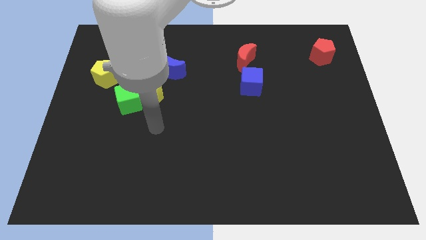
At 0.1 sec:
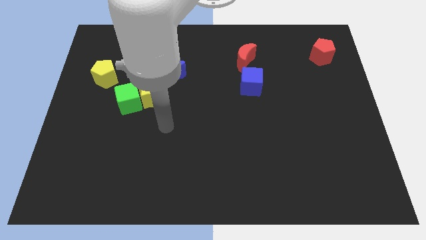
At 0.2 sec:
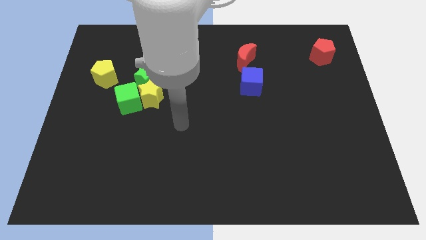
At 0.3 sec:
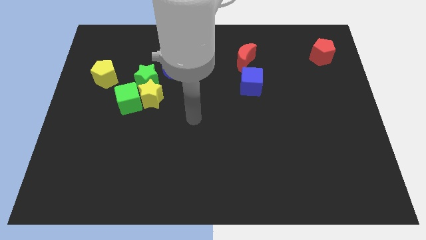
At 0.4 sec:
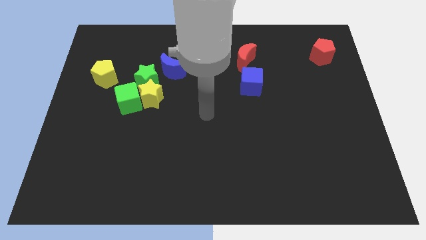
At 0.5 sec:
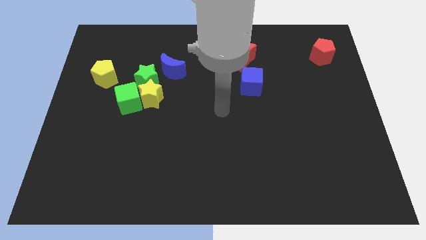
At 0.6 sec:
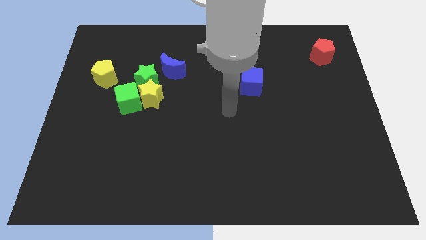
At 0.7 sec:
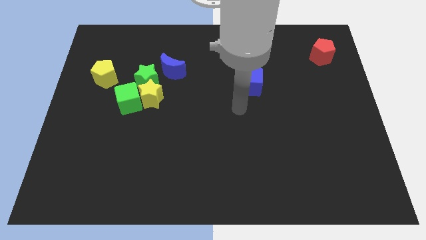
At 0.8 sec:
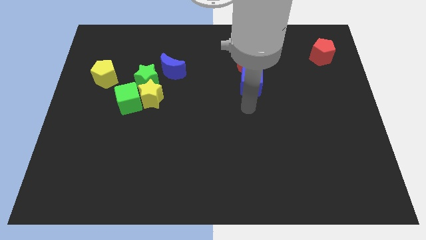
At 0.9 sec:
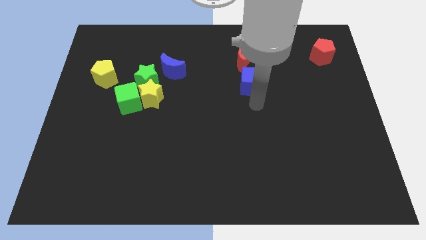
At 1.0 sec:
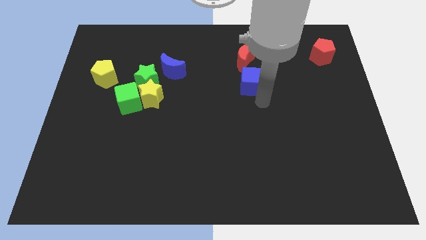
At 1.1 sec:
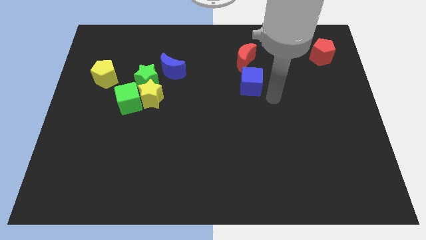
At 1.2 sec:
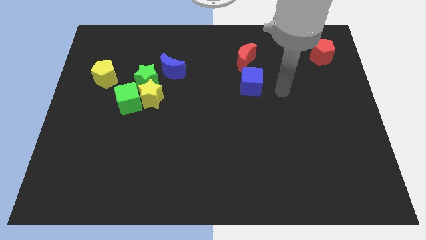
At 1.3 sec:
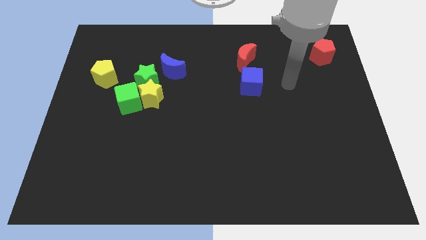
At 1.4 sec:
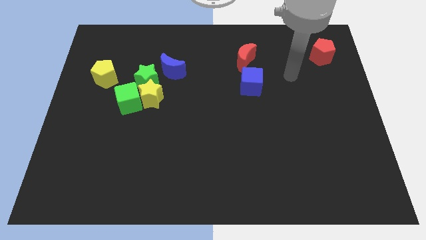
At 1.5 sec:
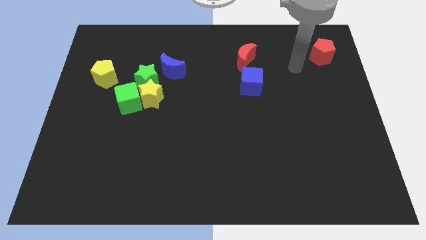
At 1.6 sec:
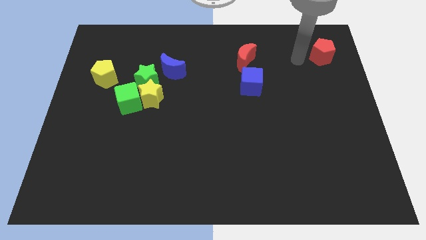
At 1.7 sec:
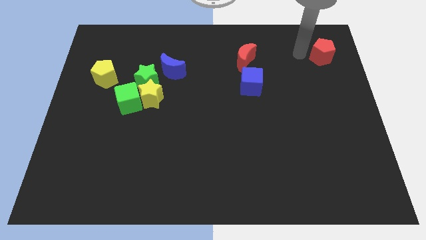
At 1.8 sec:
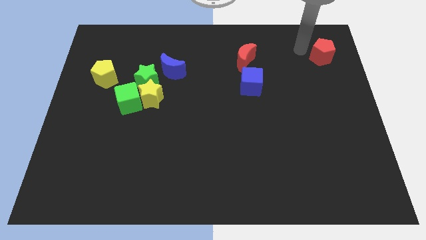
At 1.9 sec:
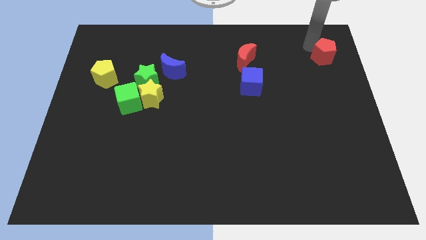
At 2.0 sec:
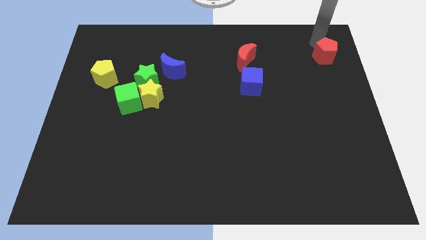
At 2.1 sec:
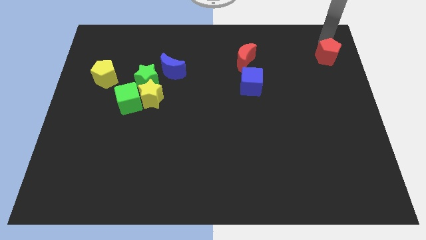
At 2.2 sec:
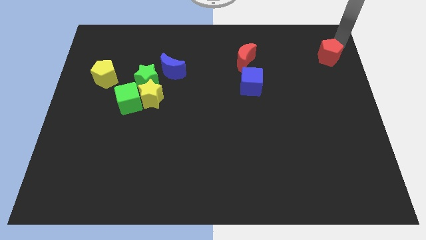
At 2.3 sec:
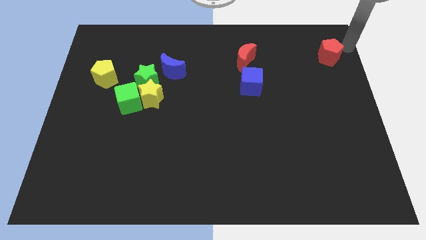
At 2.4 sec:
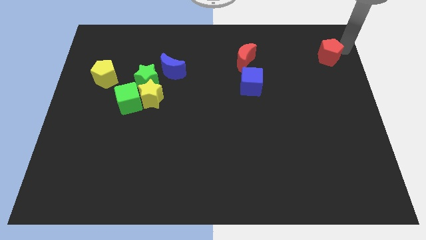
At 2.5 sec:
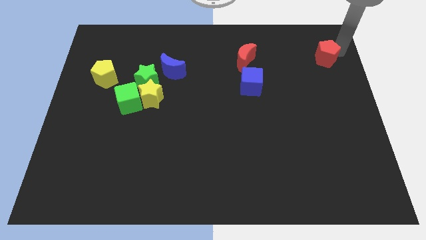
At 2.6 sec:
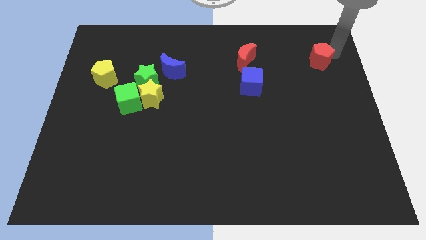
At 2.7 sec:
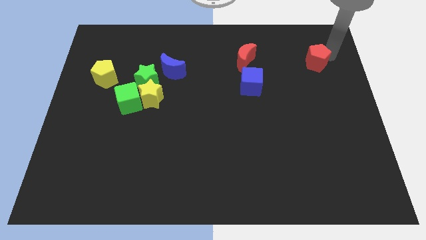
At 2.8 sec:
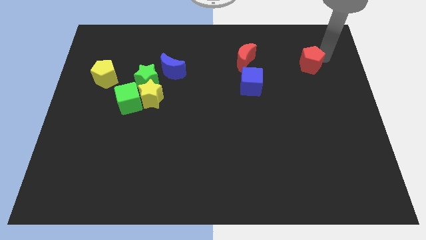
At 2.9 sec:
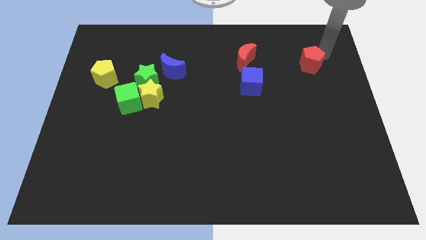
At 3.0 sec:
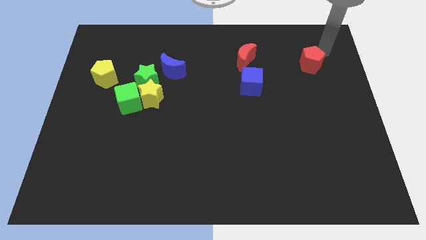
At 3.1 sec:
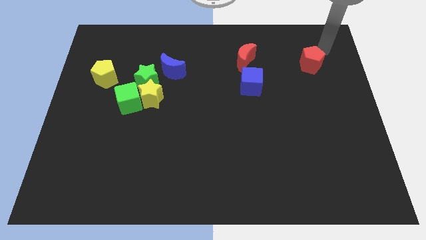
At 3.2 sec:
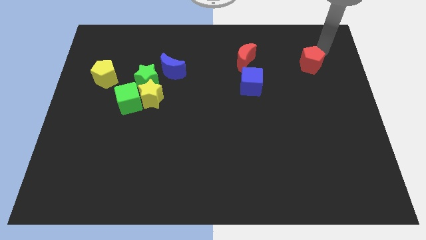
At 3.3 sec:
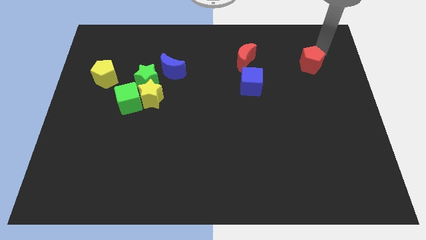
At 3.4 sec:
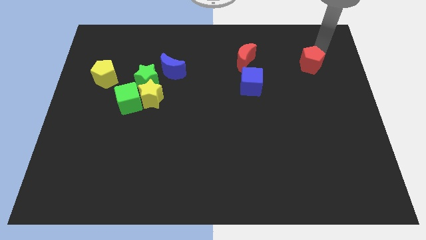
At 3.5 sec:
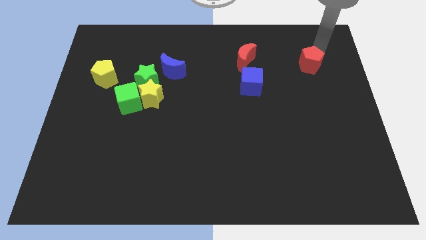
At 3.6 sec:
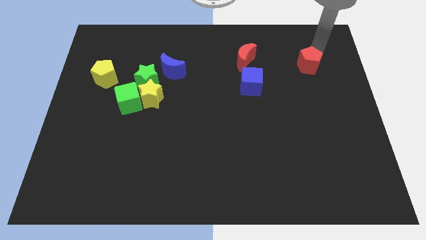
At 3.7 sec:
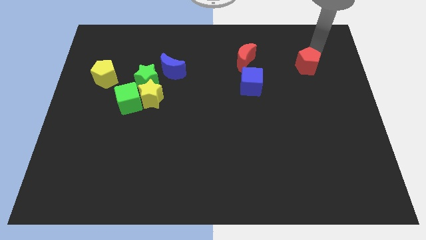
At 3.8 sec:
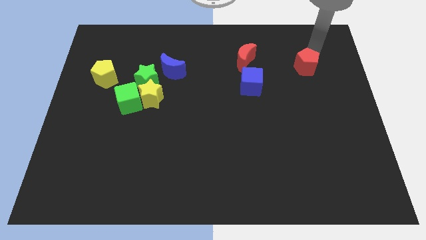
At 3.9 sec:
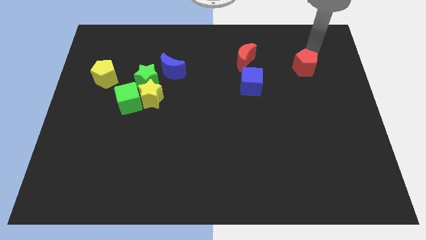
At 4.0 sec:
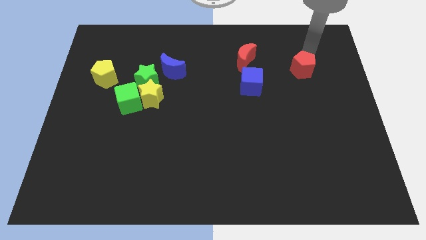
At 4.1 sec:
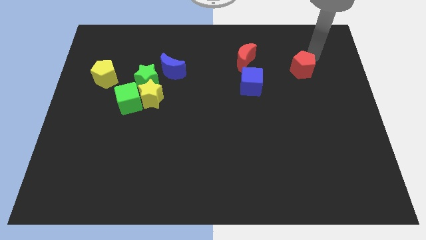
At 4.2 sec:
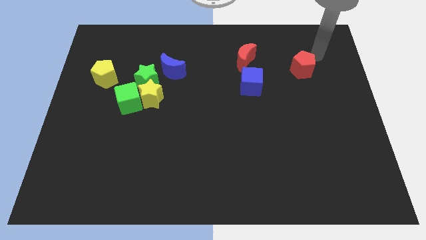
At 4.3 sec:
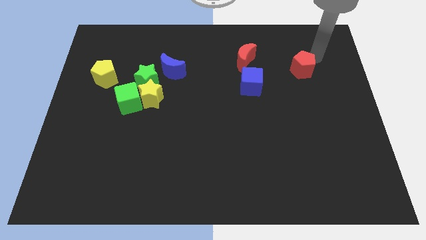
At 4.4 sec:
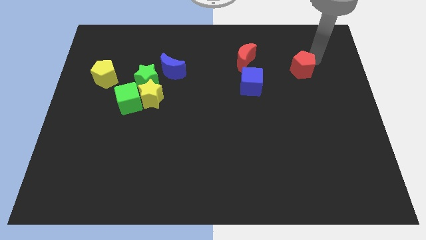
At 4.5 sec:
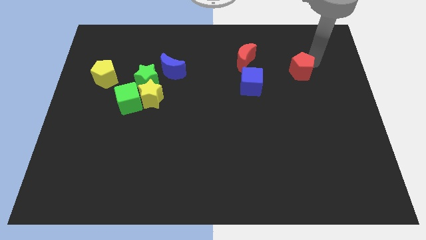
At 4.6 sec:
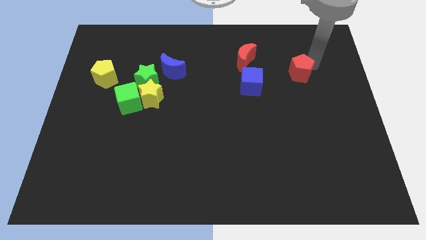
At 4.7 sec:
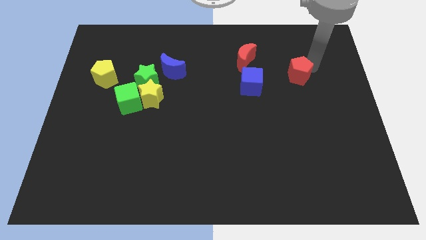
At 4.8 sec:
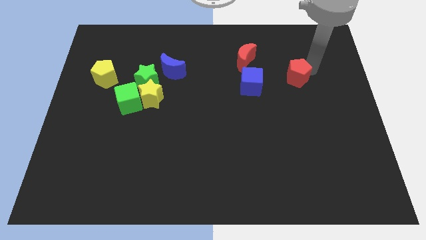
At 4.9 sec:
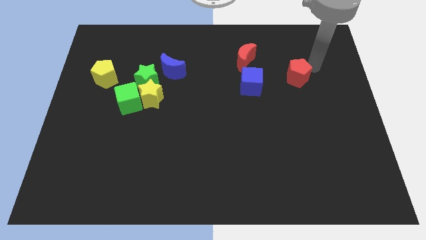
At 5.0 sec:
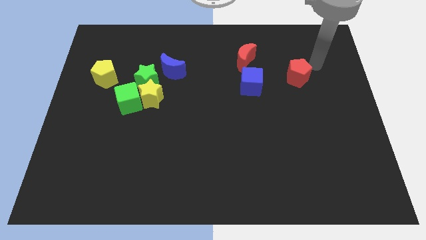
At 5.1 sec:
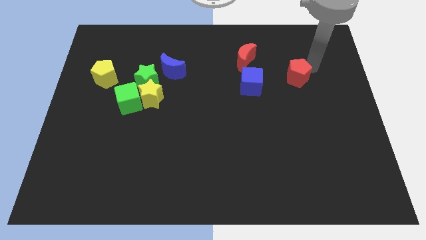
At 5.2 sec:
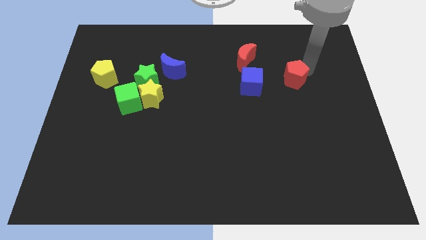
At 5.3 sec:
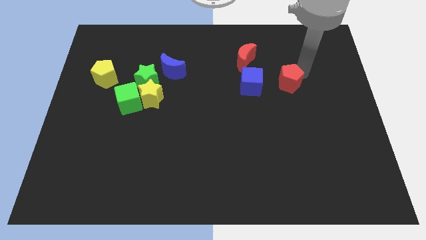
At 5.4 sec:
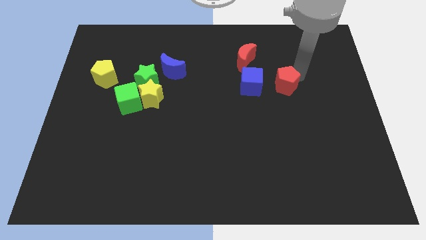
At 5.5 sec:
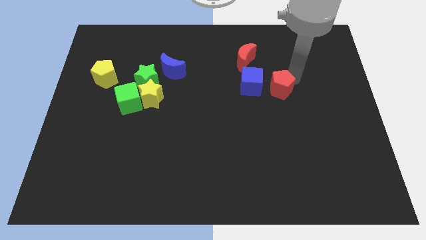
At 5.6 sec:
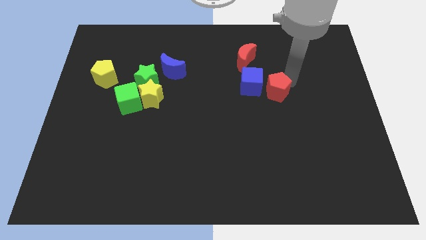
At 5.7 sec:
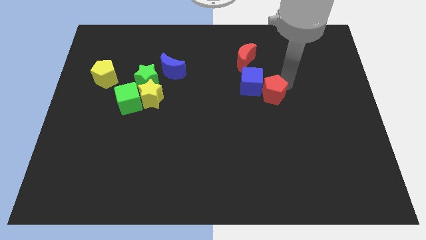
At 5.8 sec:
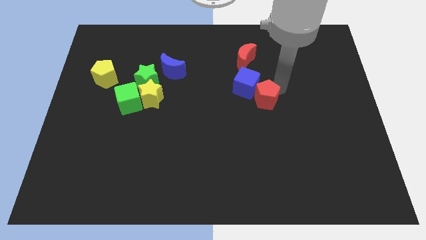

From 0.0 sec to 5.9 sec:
move the red pentagon downwards and to the left diagonally

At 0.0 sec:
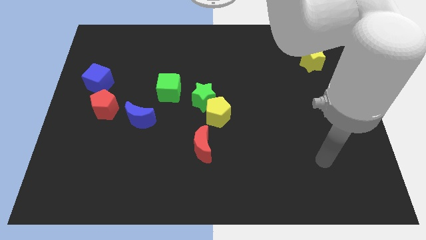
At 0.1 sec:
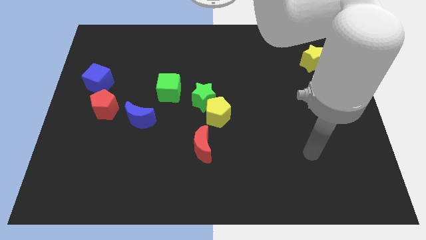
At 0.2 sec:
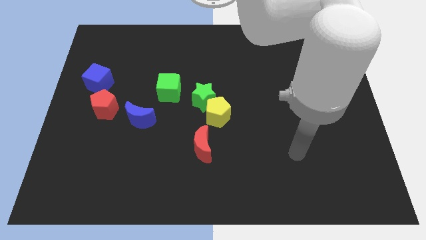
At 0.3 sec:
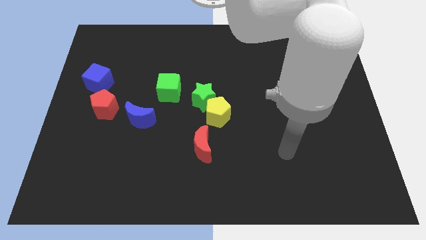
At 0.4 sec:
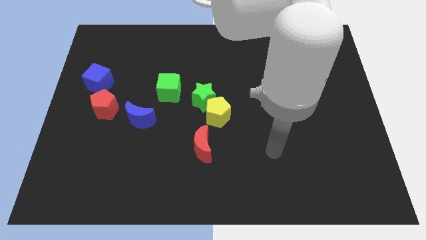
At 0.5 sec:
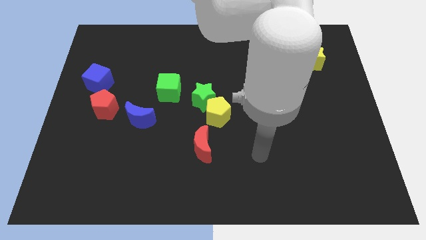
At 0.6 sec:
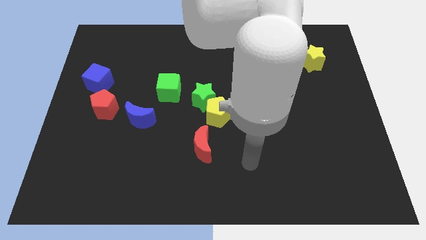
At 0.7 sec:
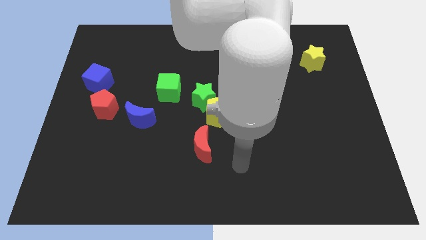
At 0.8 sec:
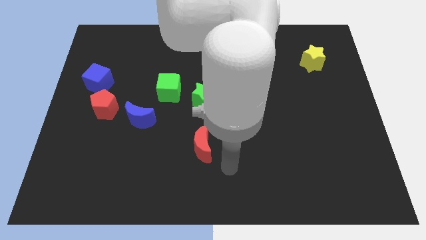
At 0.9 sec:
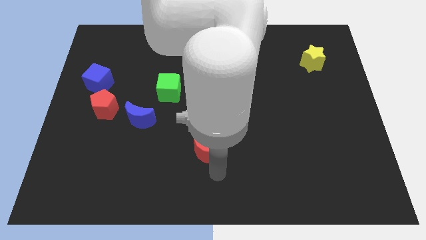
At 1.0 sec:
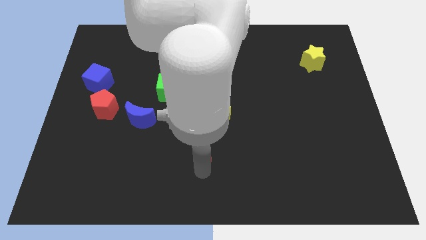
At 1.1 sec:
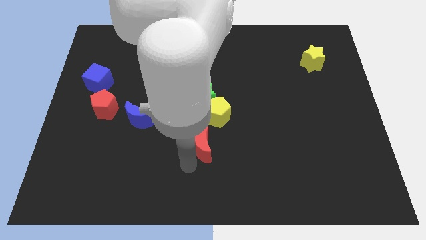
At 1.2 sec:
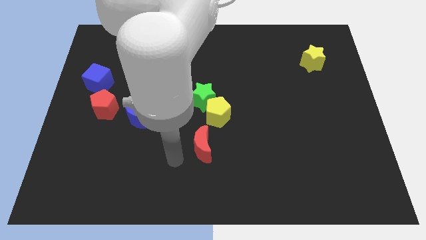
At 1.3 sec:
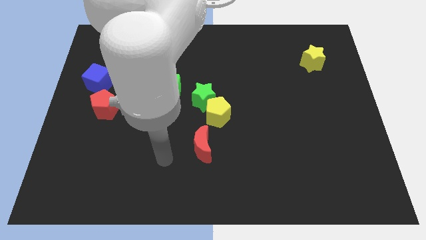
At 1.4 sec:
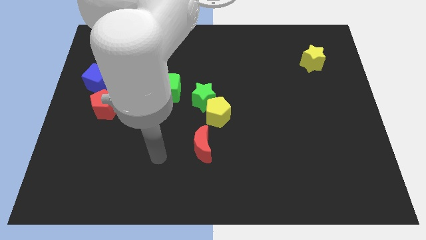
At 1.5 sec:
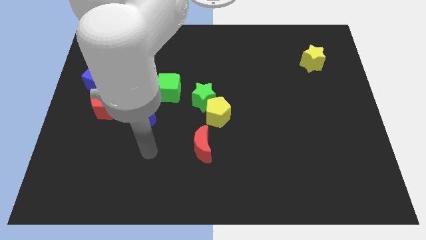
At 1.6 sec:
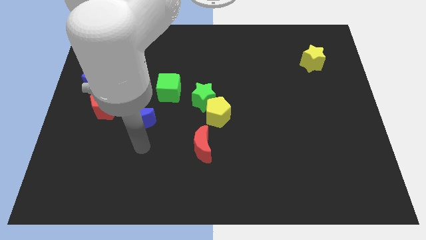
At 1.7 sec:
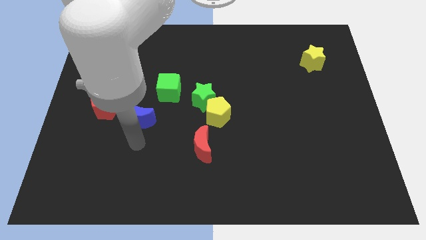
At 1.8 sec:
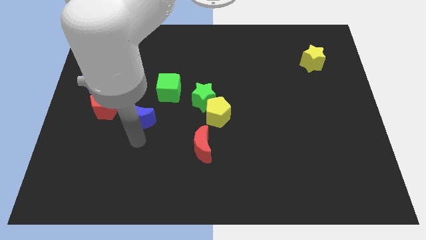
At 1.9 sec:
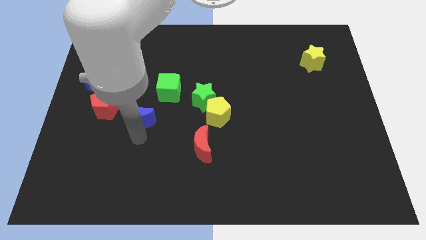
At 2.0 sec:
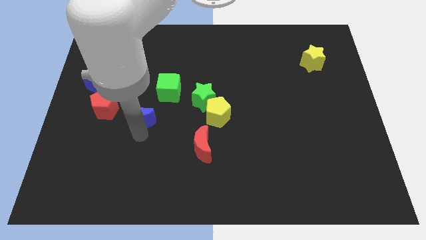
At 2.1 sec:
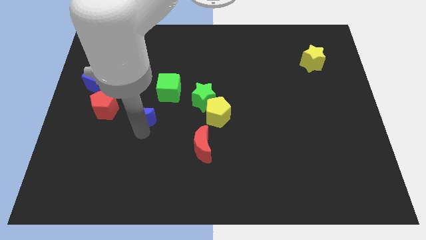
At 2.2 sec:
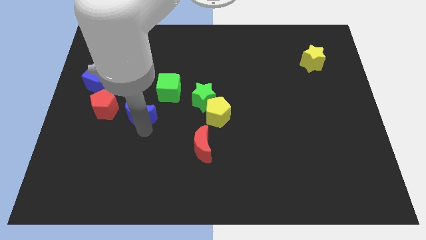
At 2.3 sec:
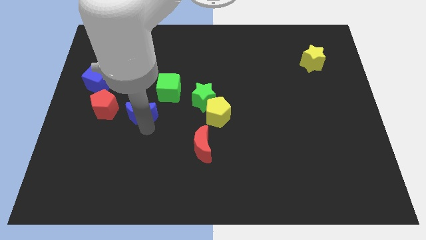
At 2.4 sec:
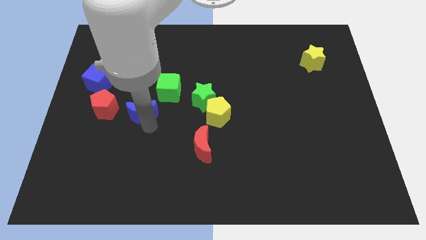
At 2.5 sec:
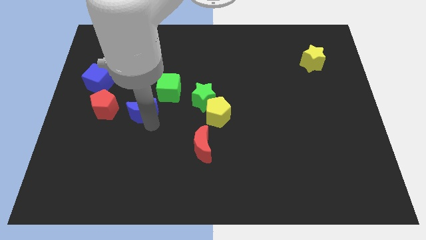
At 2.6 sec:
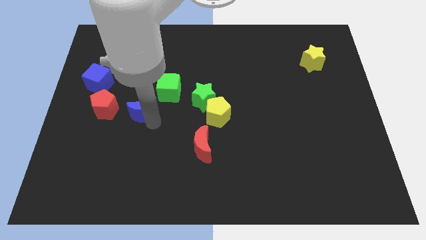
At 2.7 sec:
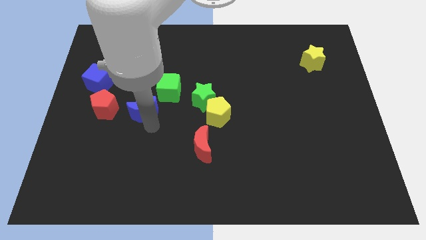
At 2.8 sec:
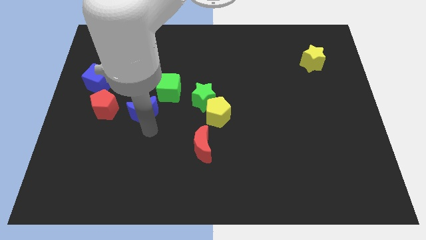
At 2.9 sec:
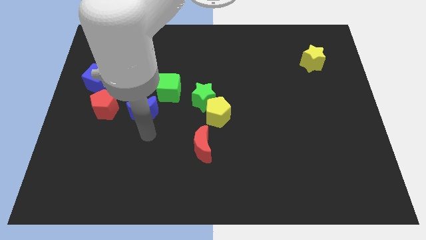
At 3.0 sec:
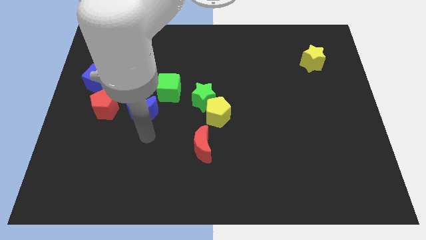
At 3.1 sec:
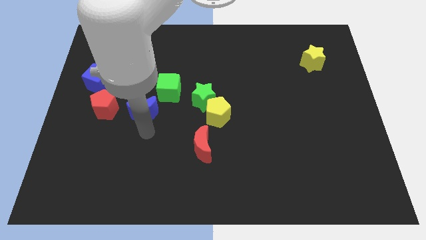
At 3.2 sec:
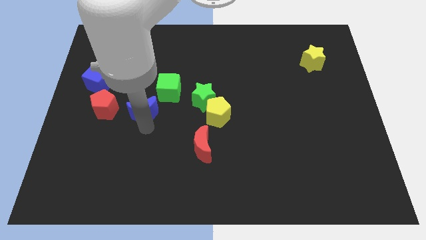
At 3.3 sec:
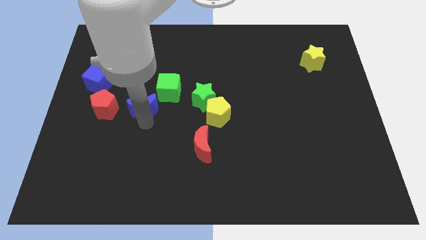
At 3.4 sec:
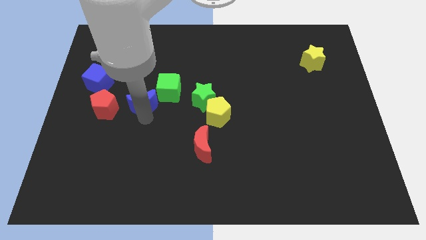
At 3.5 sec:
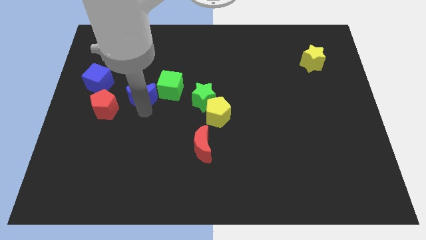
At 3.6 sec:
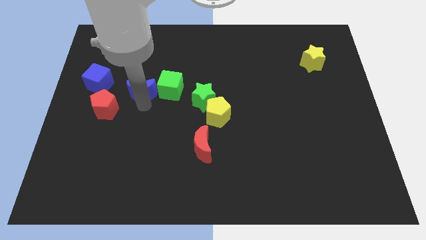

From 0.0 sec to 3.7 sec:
push the blue moon a bit up
